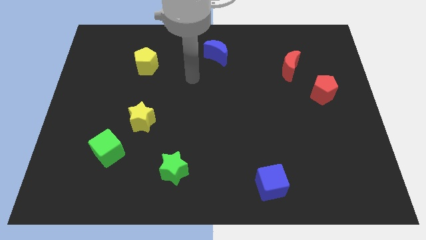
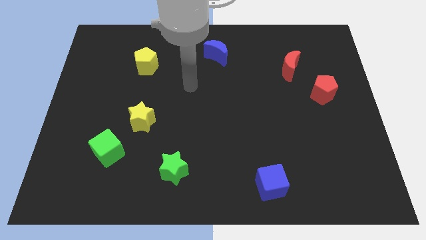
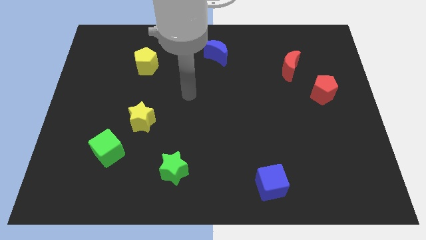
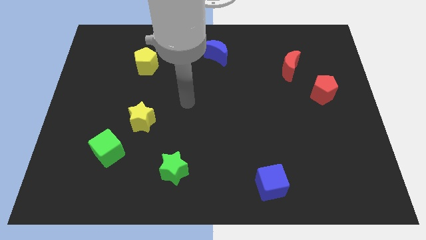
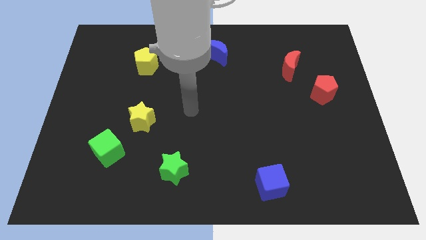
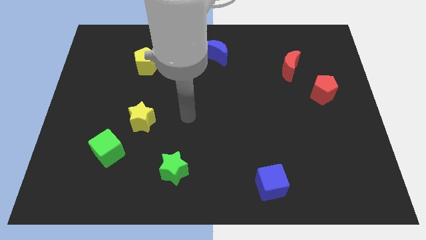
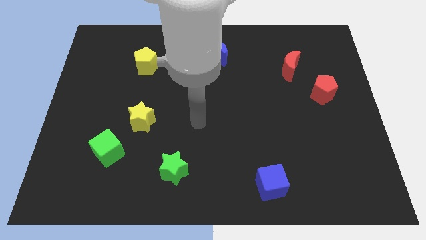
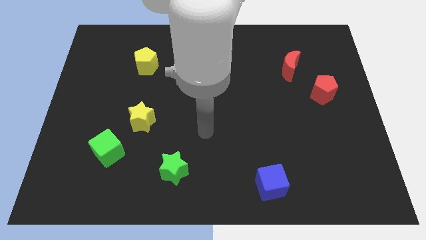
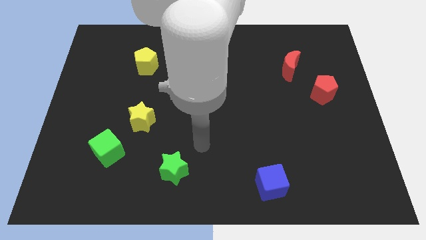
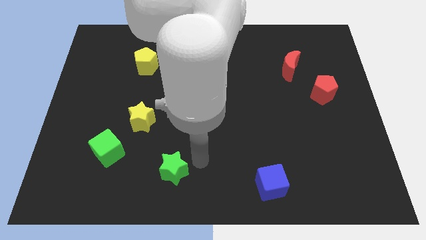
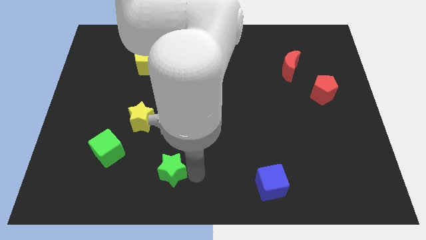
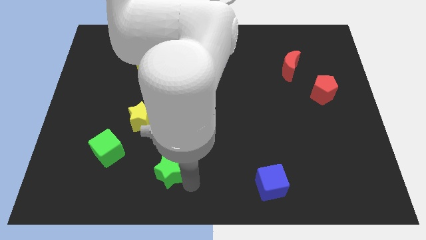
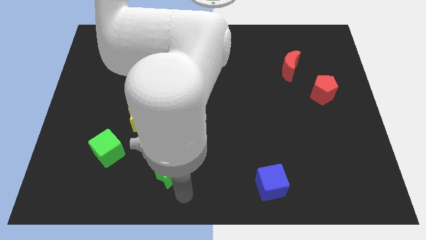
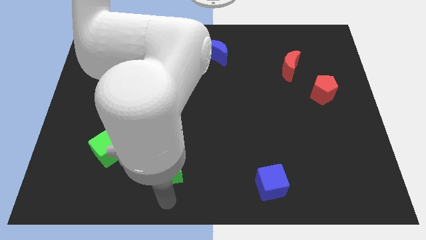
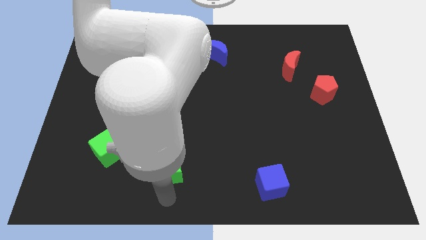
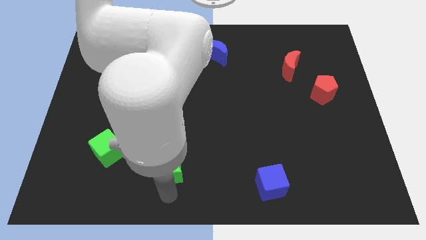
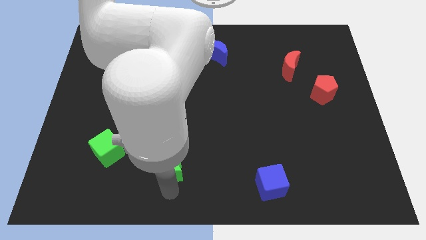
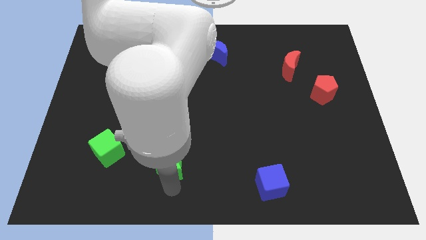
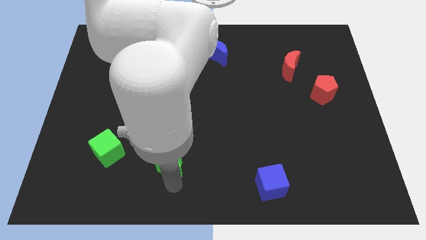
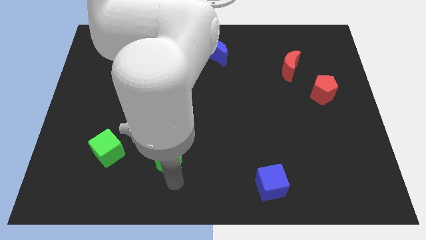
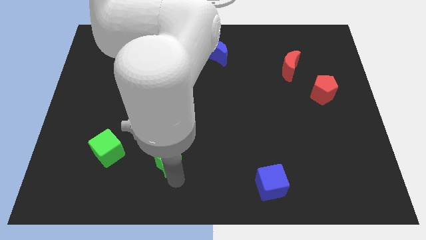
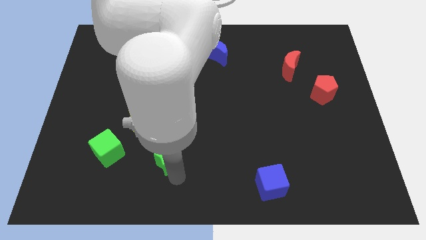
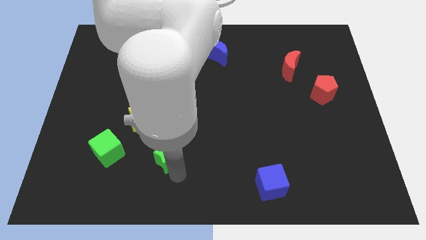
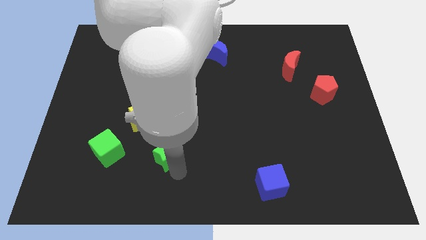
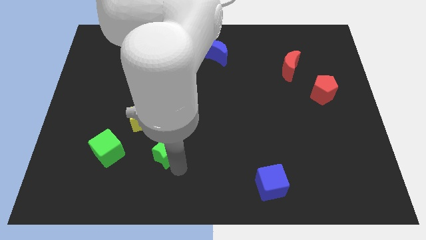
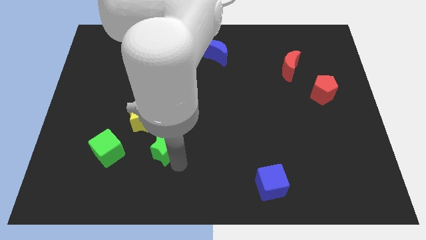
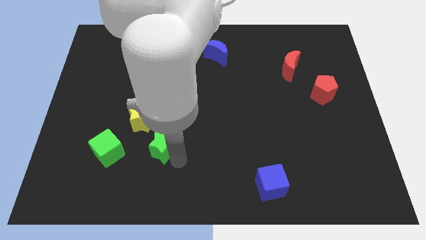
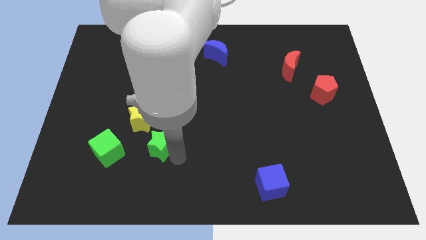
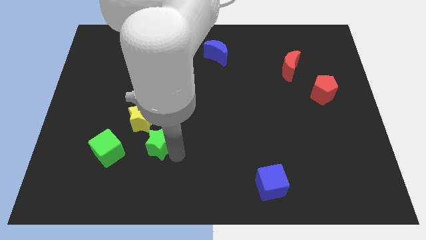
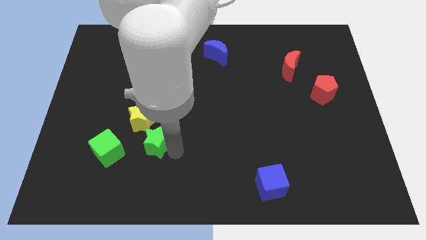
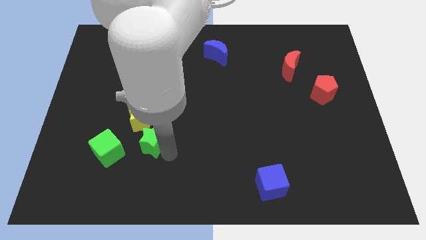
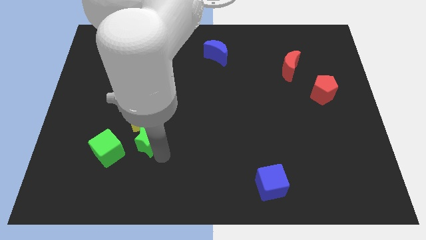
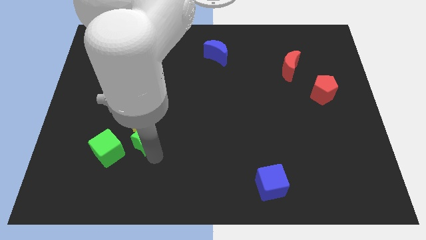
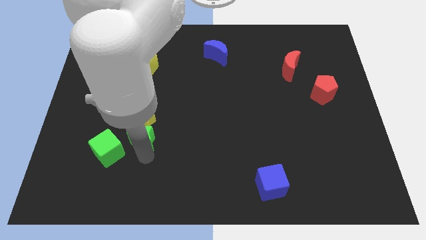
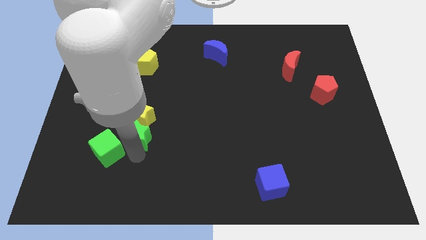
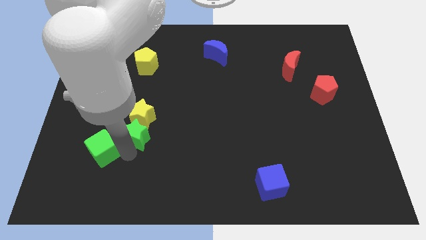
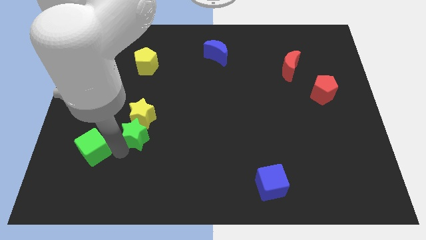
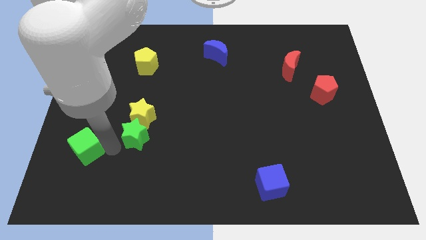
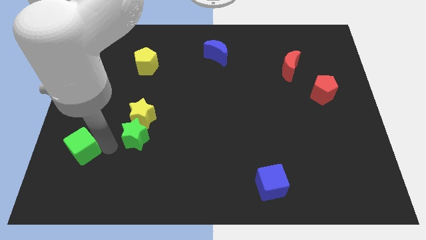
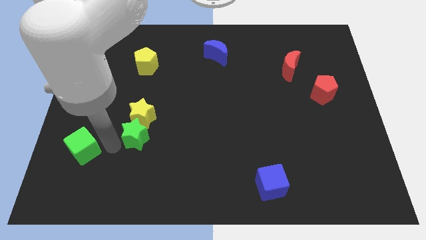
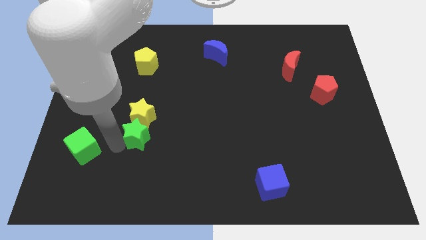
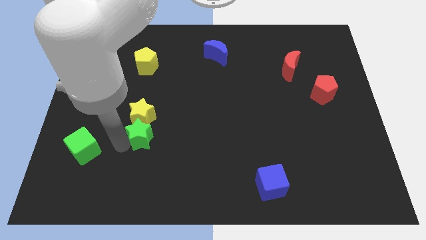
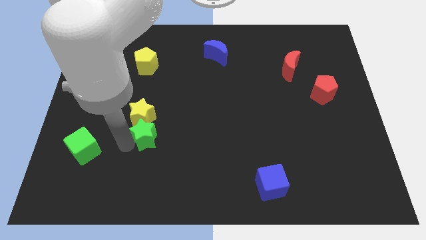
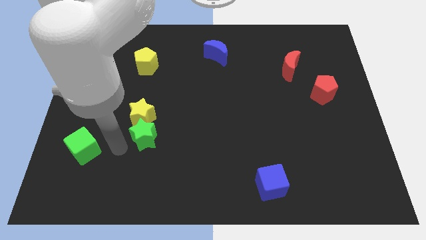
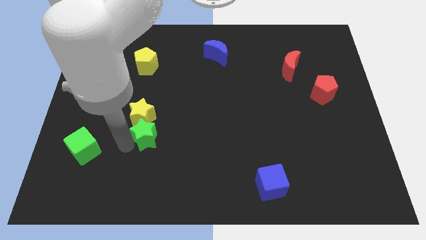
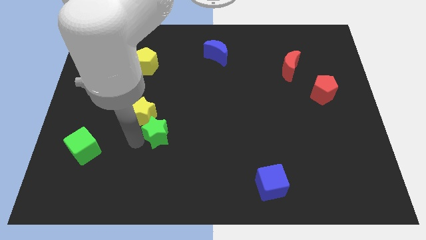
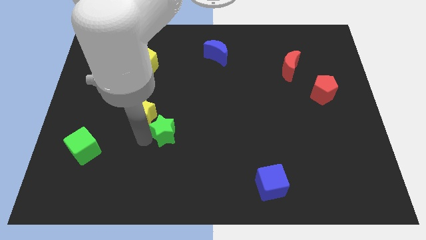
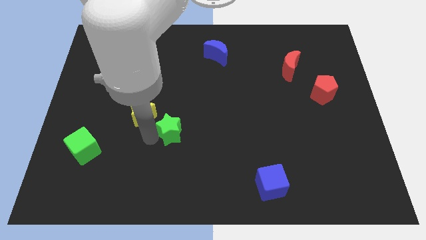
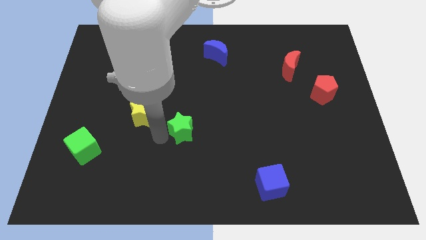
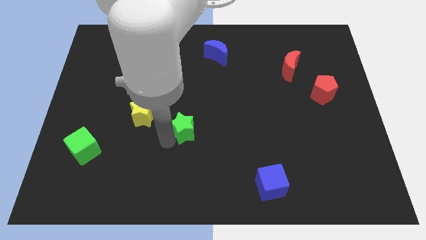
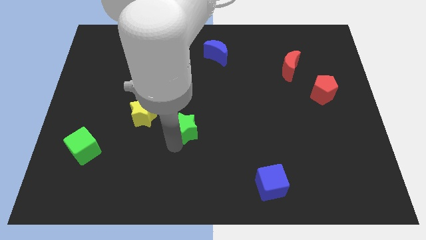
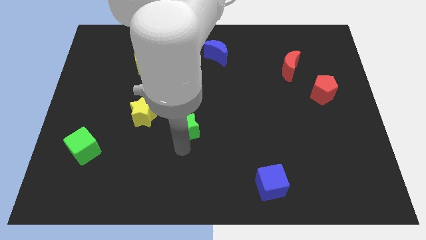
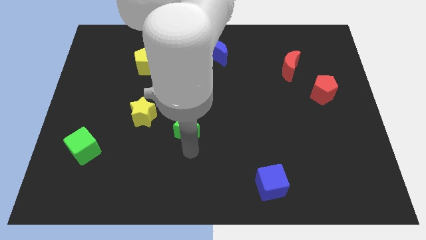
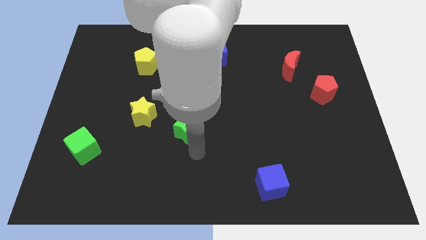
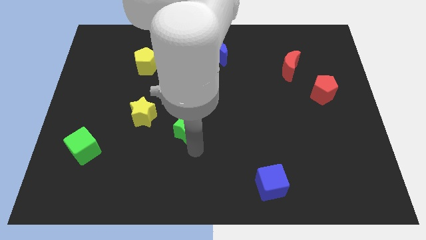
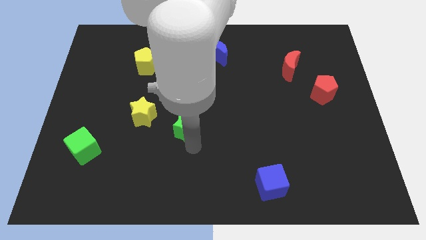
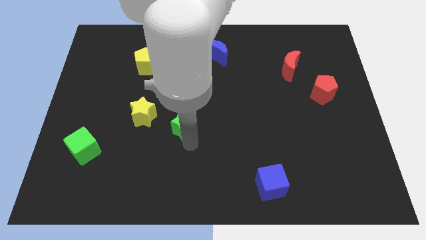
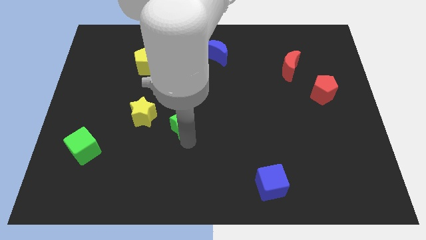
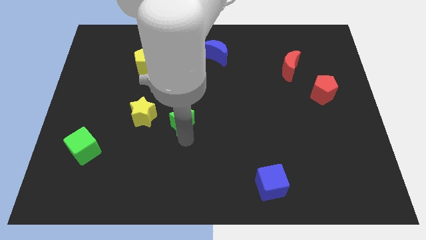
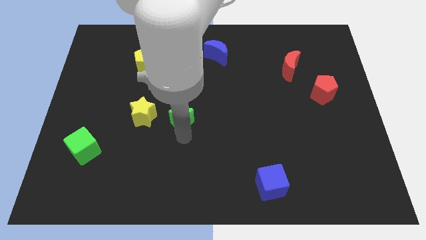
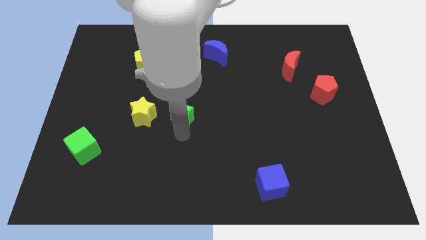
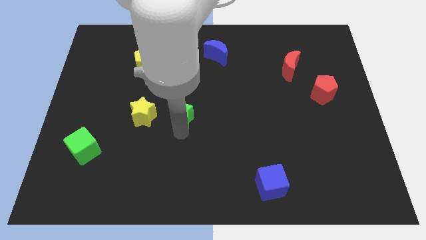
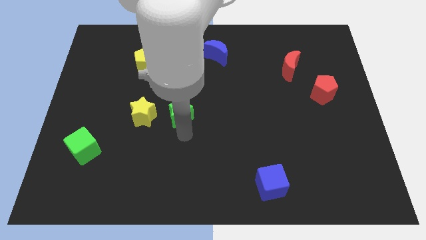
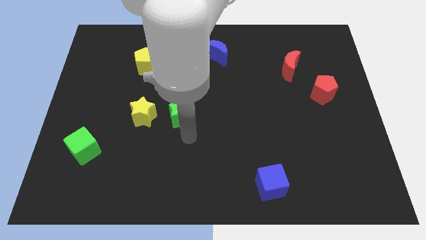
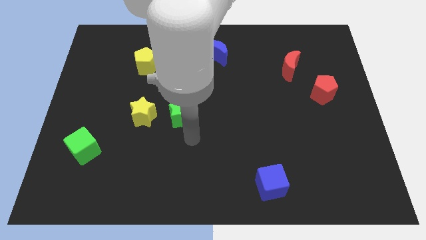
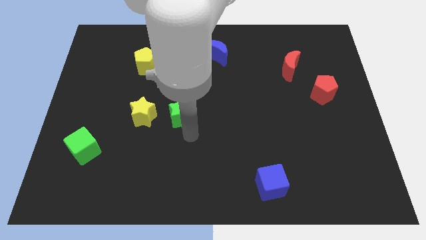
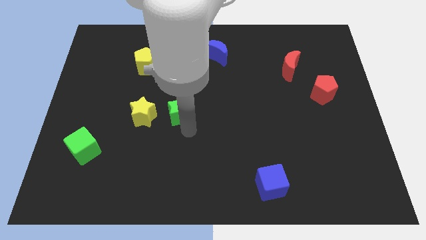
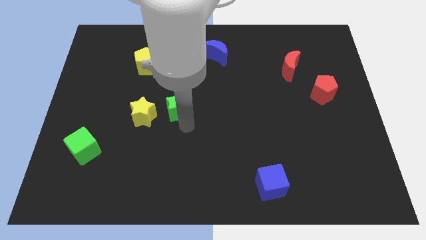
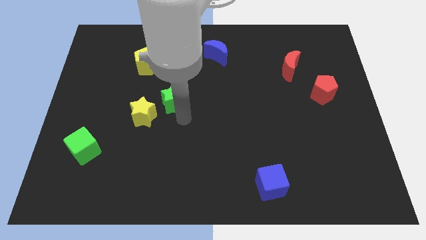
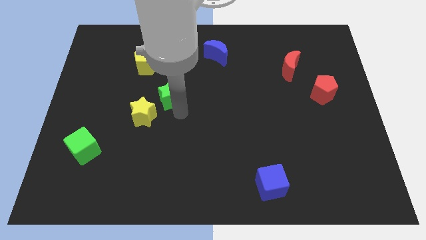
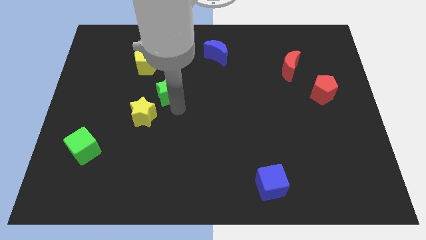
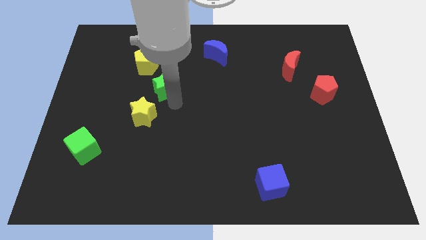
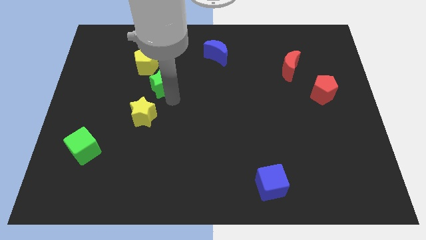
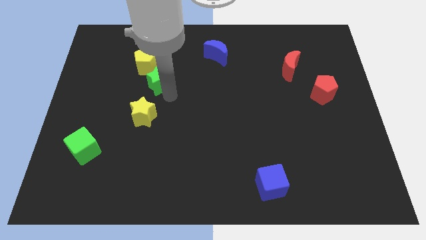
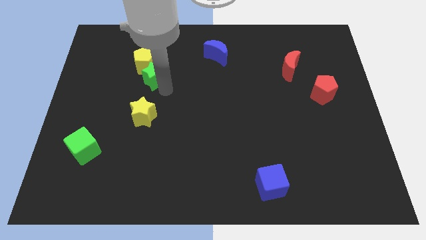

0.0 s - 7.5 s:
slide the green star to the yellow pentagon

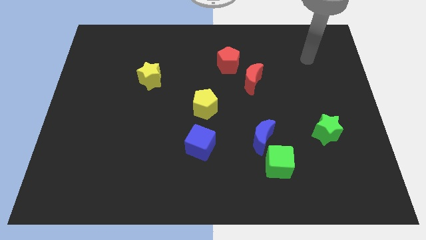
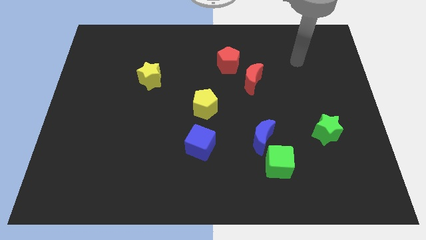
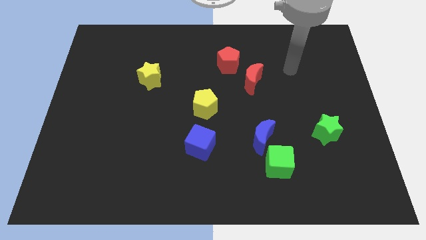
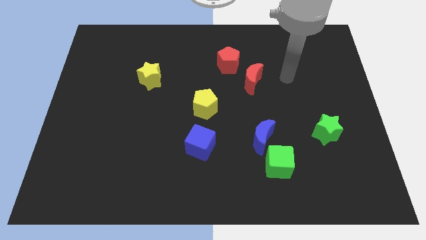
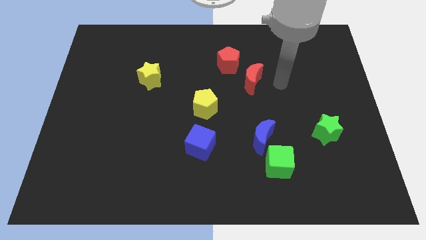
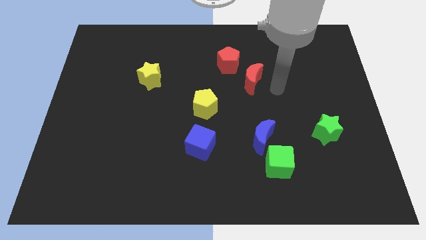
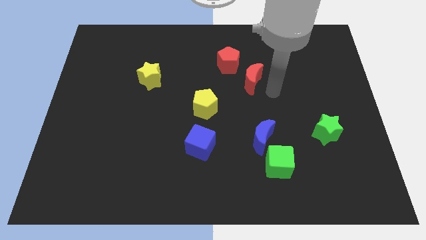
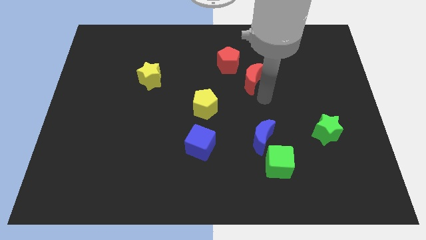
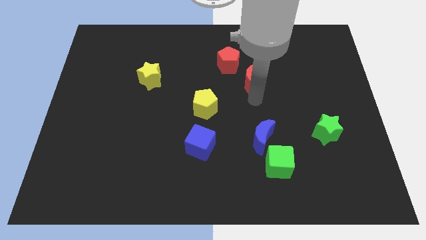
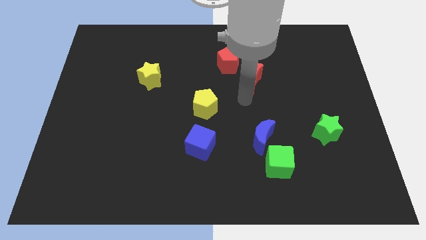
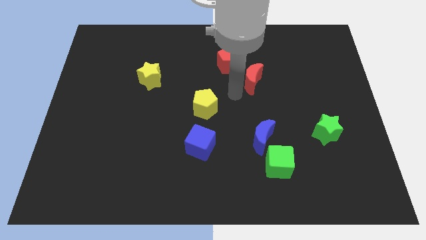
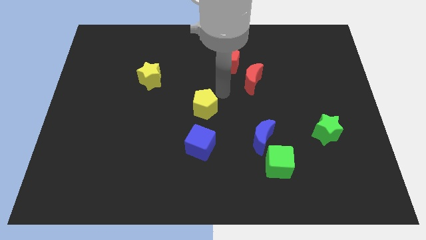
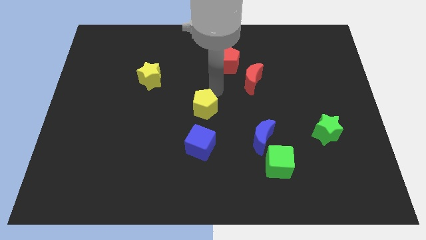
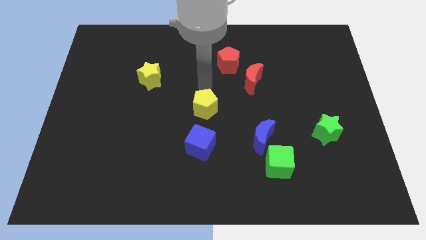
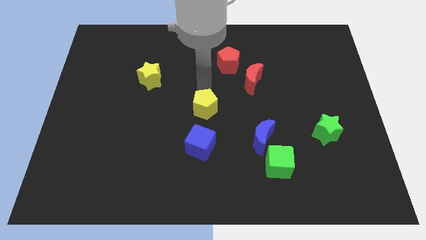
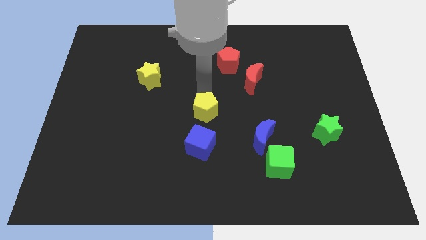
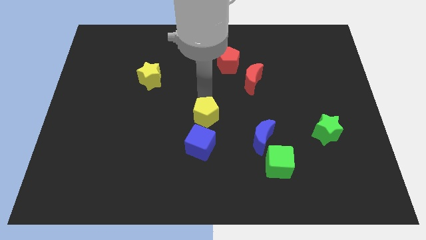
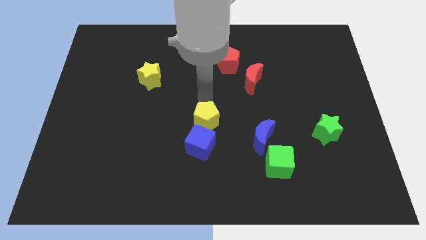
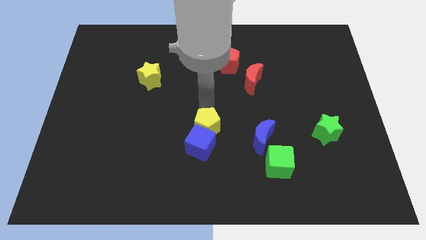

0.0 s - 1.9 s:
push the yellow pentagon towards the blue cube
